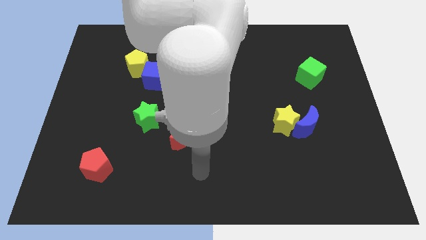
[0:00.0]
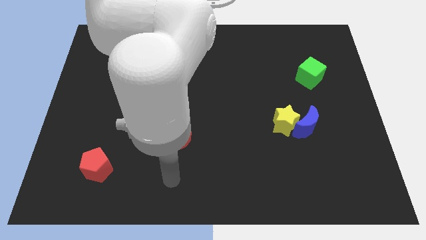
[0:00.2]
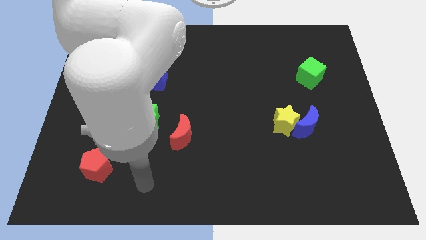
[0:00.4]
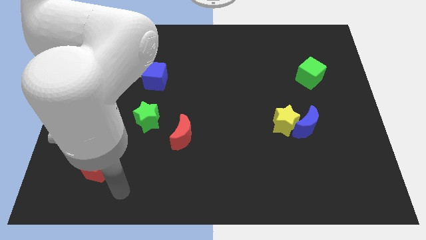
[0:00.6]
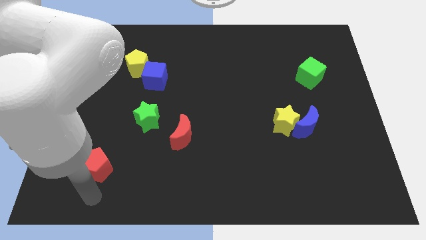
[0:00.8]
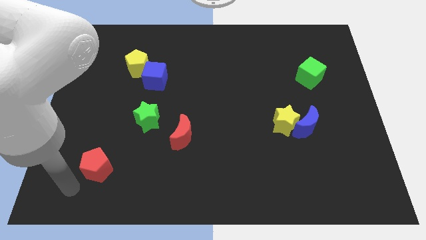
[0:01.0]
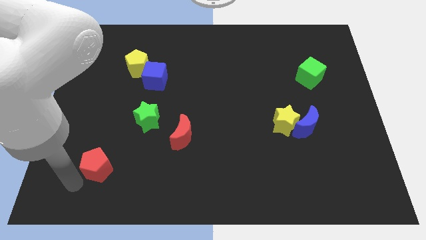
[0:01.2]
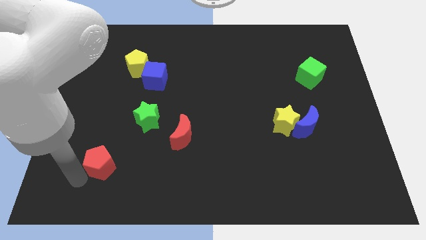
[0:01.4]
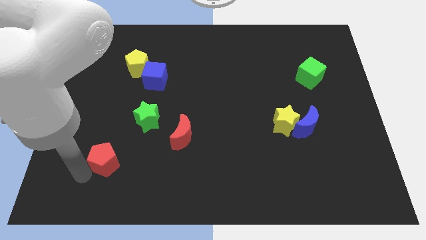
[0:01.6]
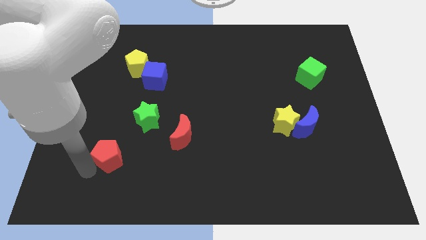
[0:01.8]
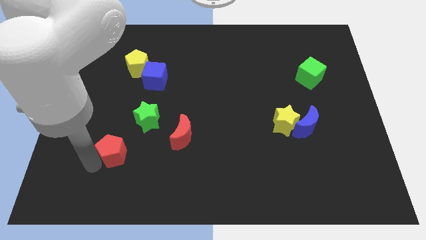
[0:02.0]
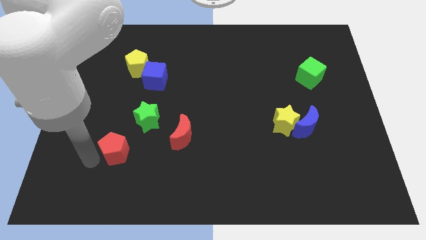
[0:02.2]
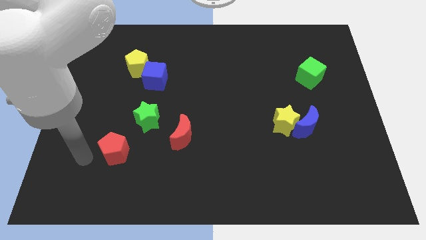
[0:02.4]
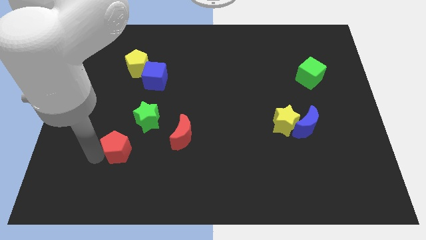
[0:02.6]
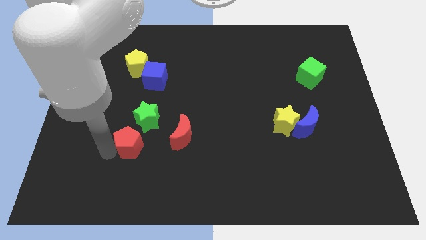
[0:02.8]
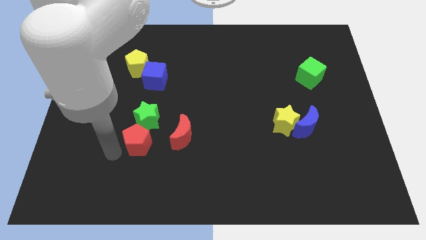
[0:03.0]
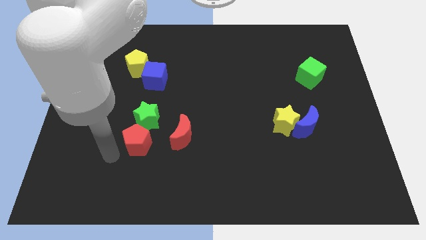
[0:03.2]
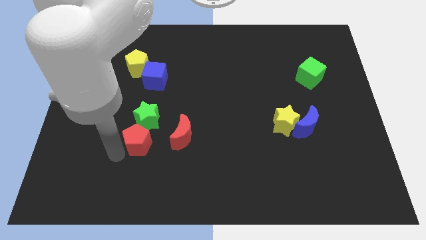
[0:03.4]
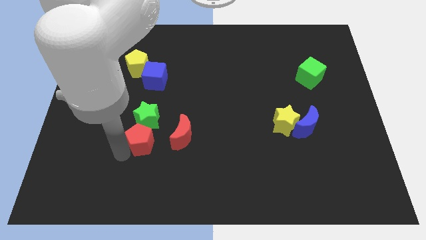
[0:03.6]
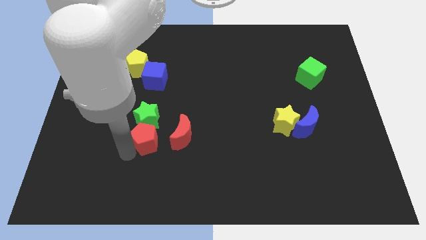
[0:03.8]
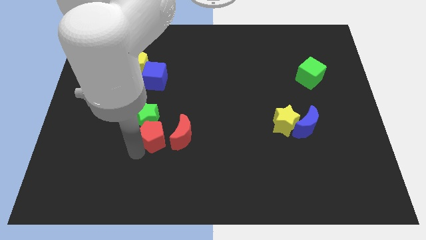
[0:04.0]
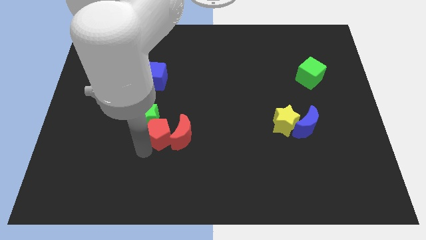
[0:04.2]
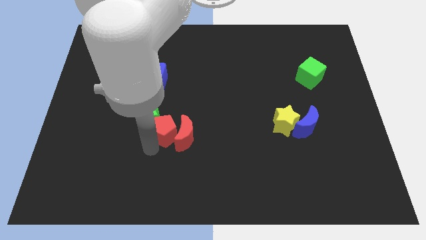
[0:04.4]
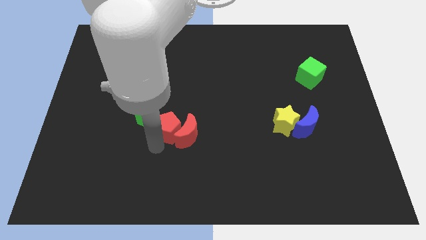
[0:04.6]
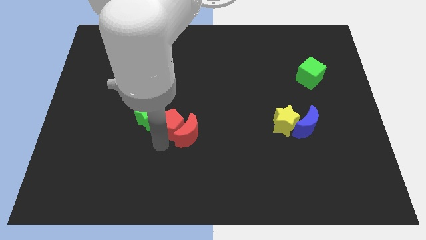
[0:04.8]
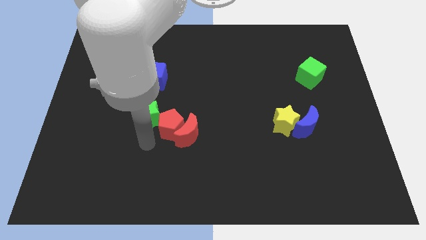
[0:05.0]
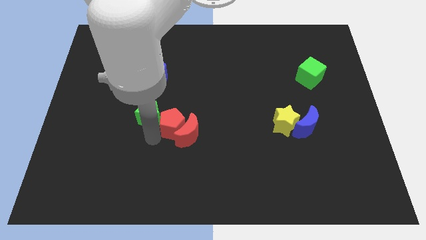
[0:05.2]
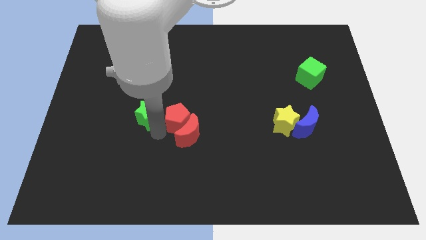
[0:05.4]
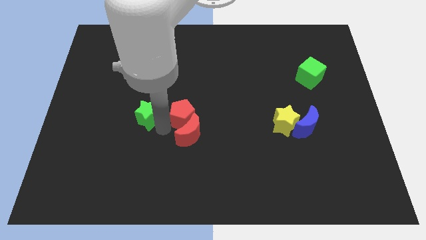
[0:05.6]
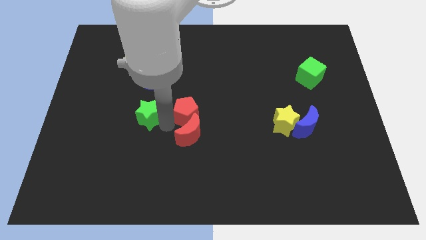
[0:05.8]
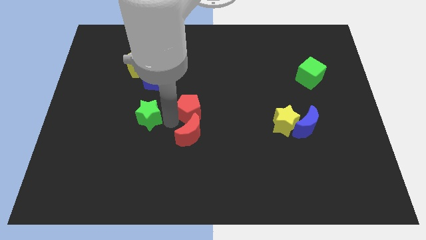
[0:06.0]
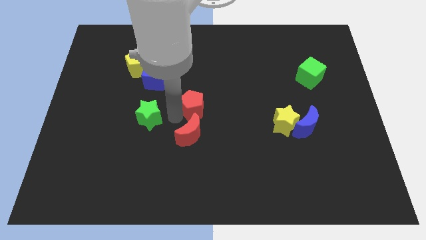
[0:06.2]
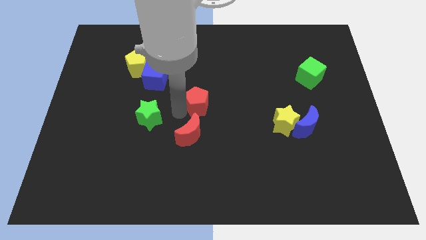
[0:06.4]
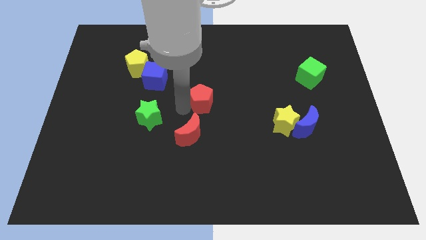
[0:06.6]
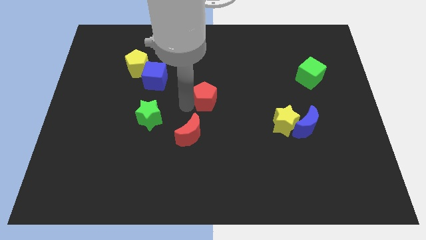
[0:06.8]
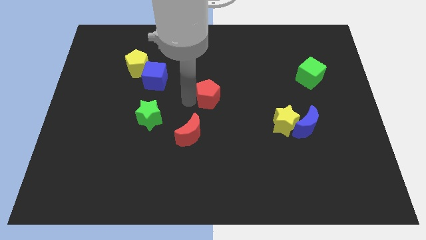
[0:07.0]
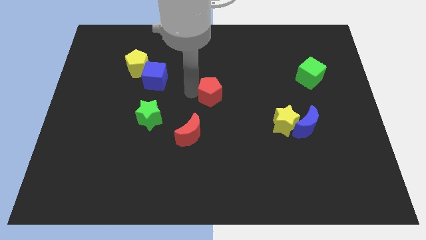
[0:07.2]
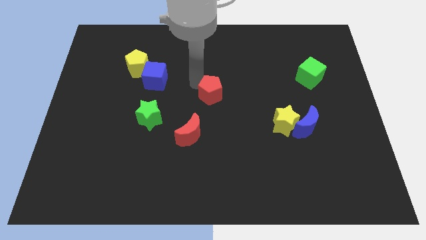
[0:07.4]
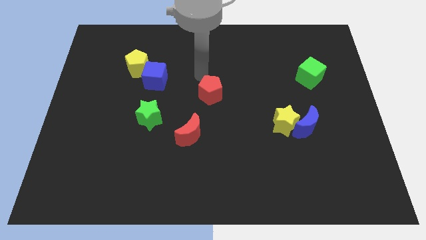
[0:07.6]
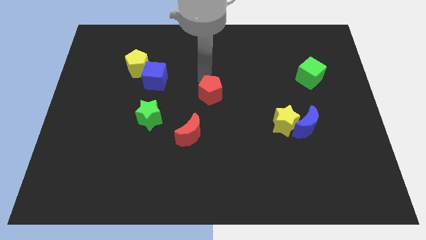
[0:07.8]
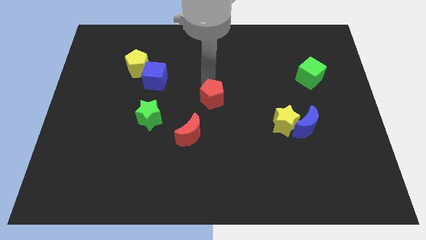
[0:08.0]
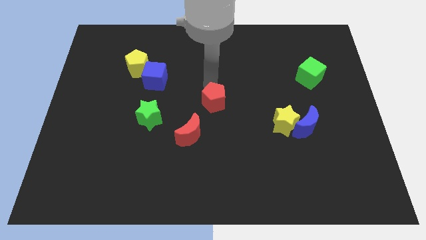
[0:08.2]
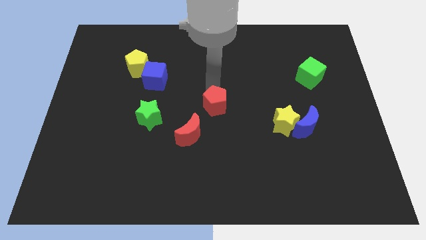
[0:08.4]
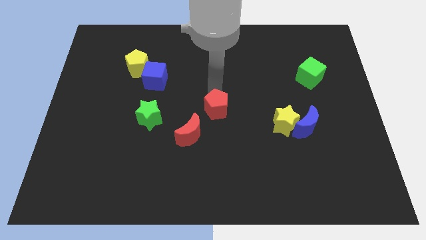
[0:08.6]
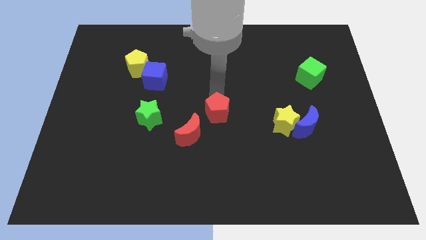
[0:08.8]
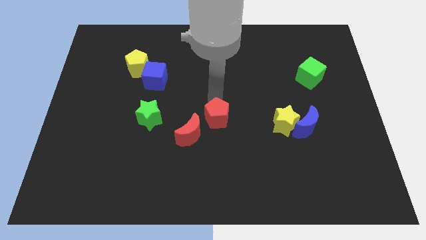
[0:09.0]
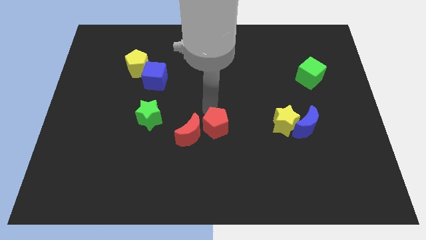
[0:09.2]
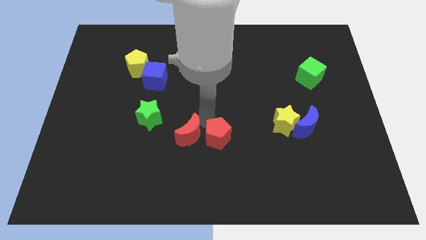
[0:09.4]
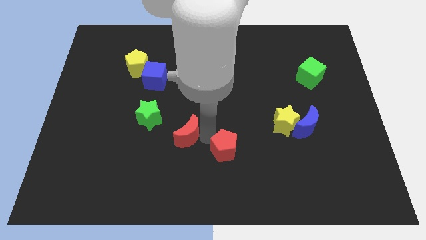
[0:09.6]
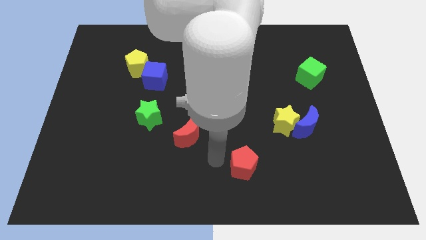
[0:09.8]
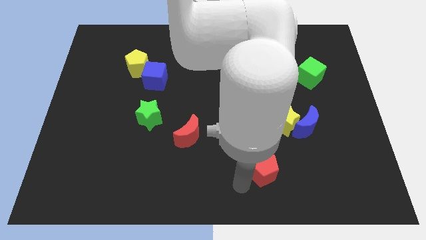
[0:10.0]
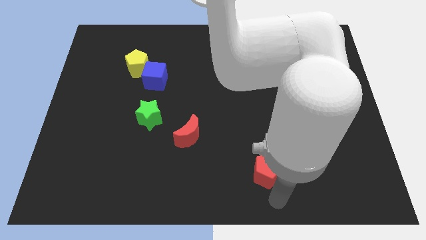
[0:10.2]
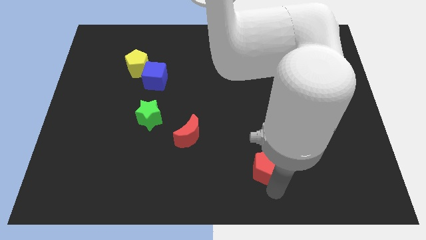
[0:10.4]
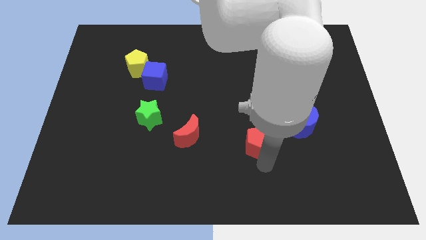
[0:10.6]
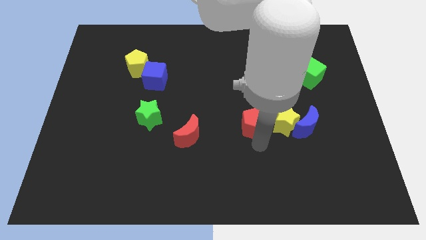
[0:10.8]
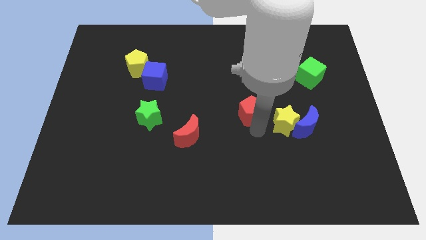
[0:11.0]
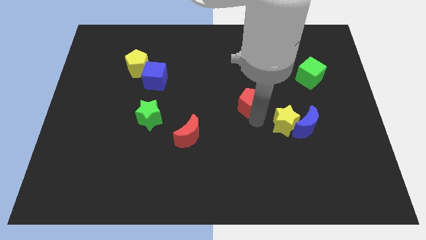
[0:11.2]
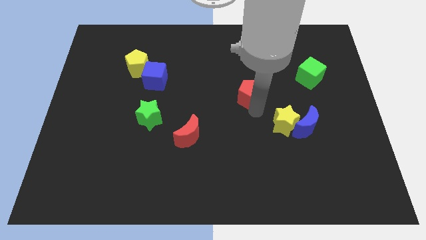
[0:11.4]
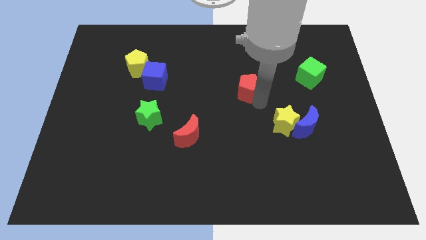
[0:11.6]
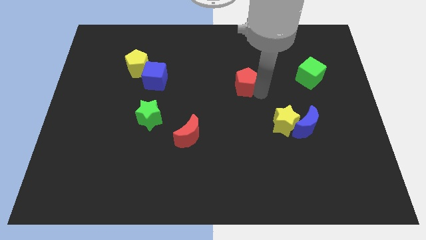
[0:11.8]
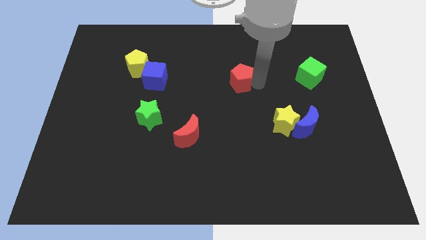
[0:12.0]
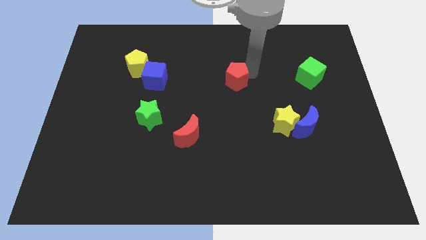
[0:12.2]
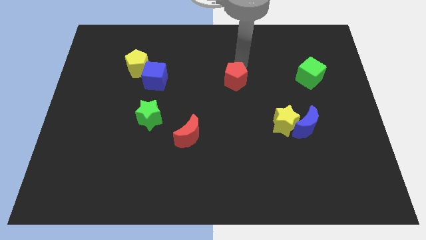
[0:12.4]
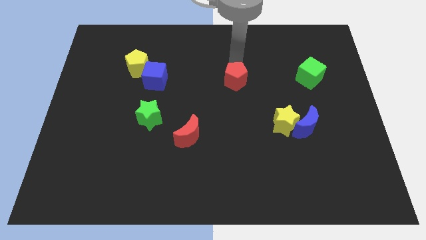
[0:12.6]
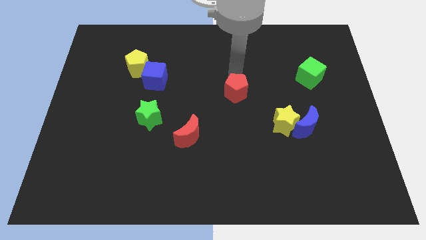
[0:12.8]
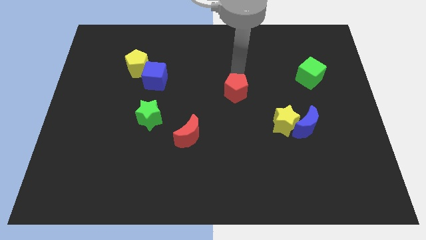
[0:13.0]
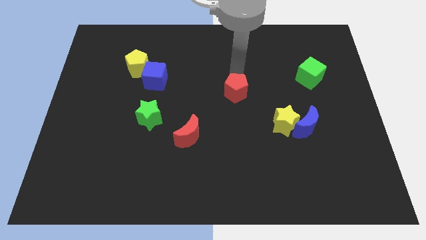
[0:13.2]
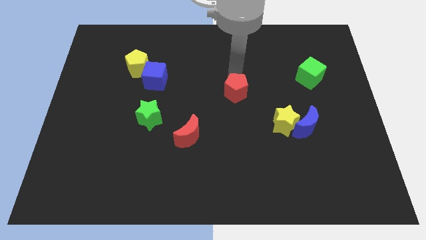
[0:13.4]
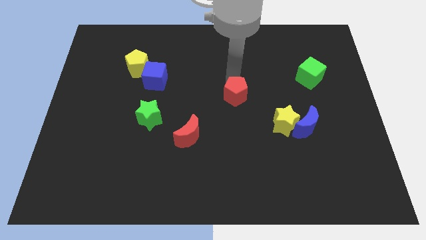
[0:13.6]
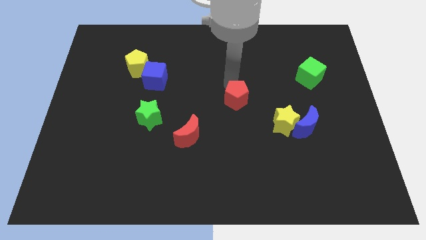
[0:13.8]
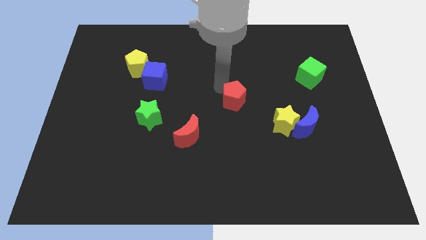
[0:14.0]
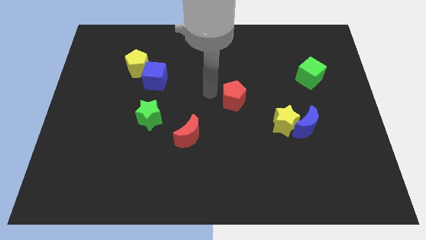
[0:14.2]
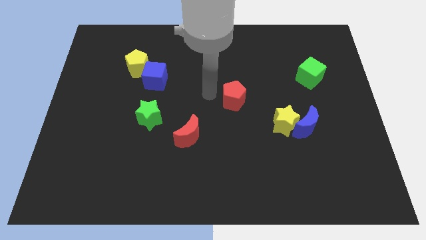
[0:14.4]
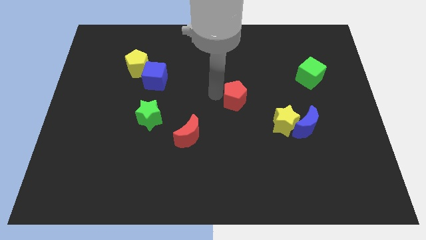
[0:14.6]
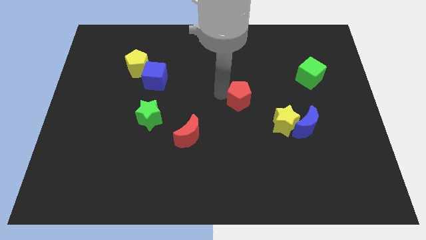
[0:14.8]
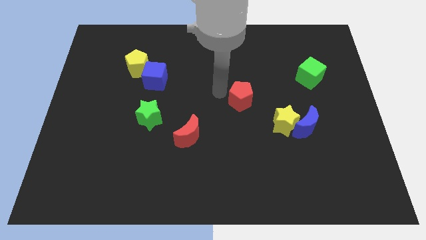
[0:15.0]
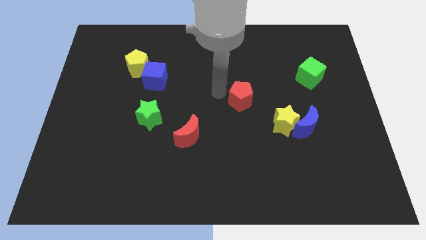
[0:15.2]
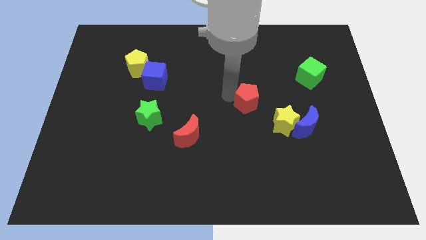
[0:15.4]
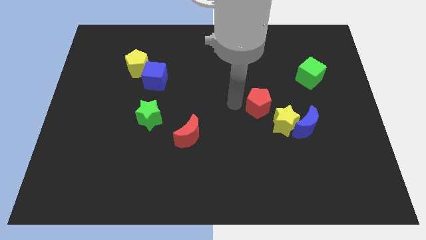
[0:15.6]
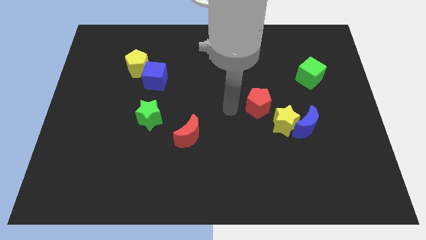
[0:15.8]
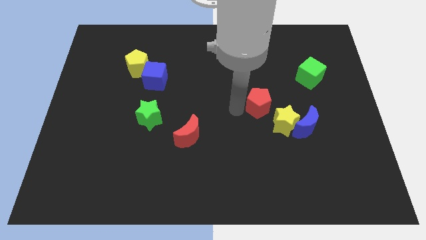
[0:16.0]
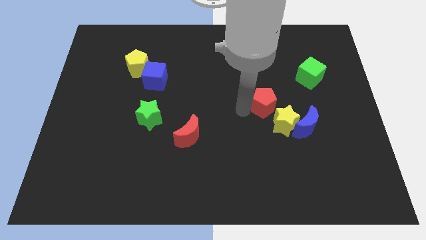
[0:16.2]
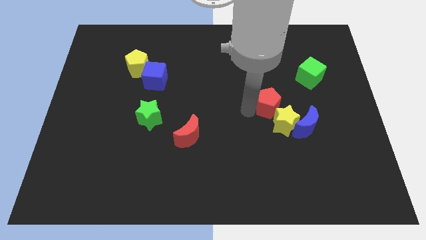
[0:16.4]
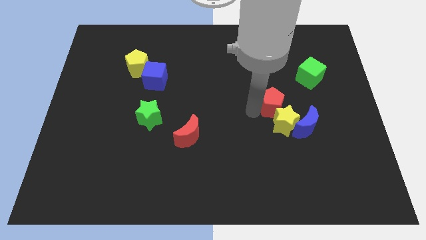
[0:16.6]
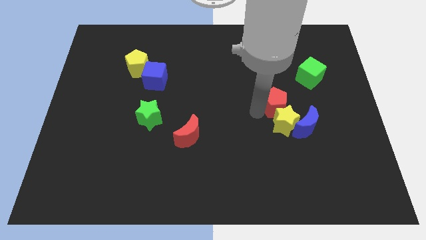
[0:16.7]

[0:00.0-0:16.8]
slide the red pentagon to the top right side of the yellow star
